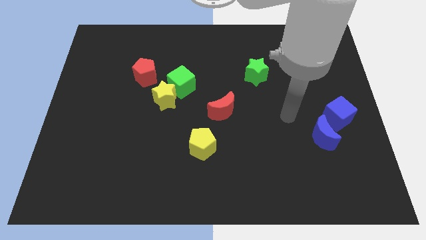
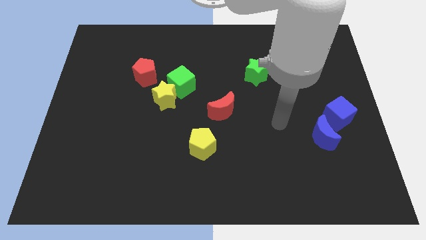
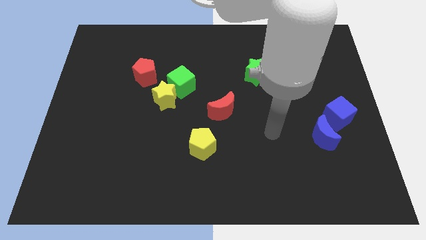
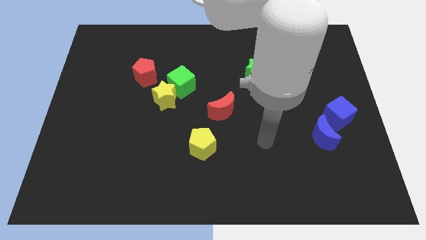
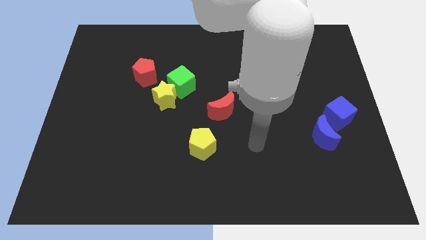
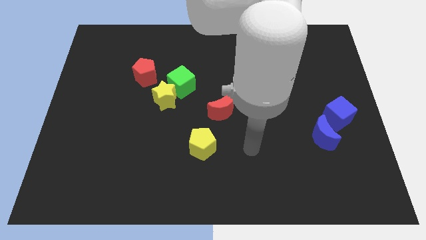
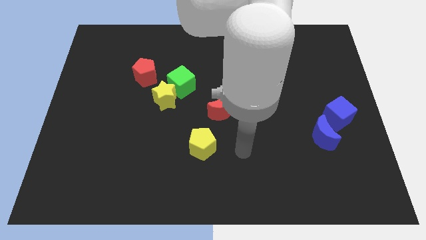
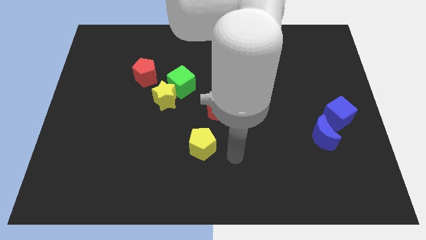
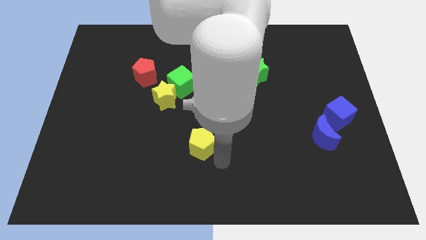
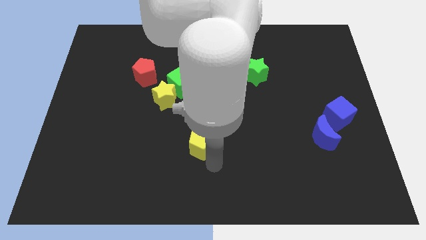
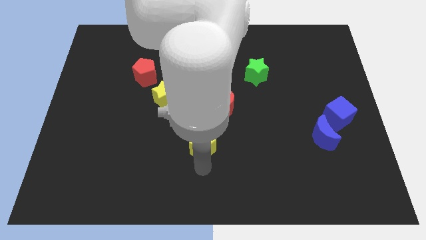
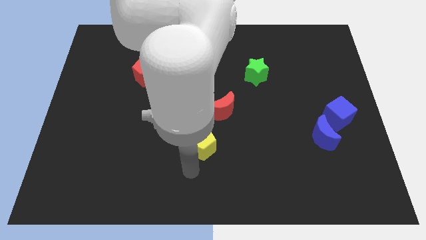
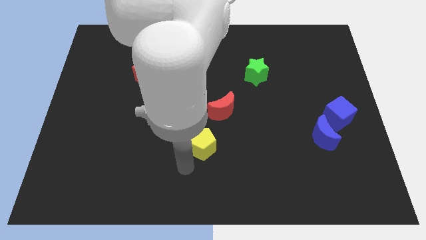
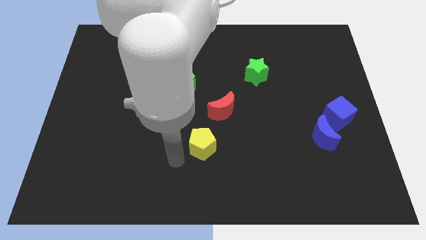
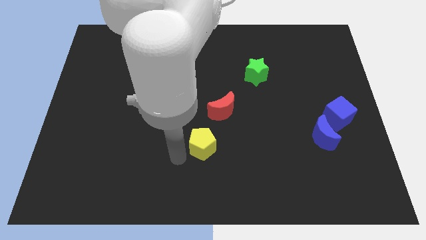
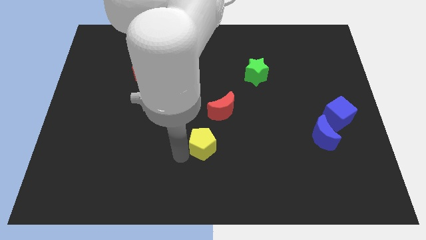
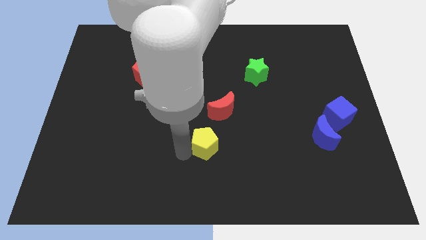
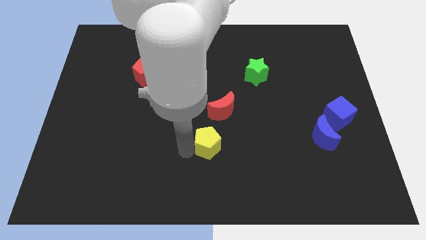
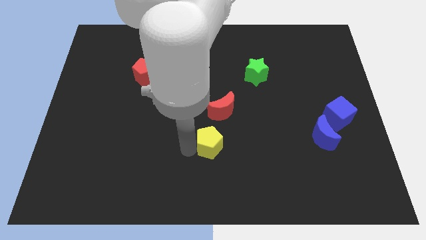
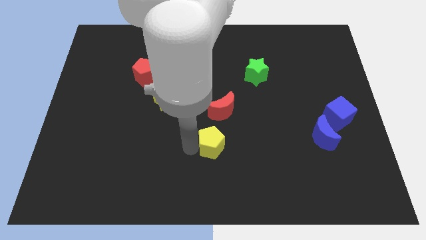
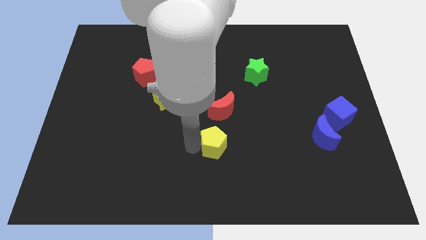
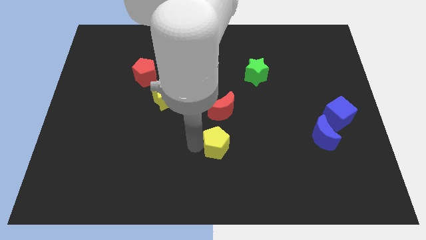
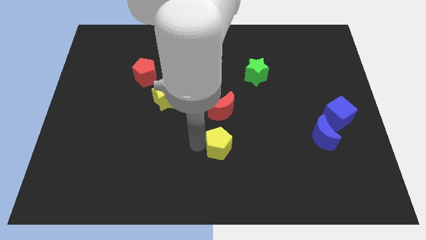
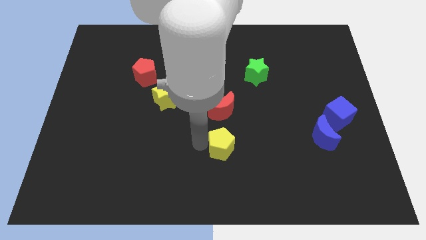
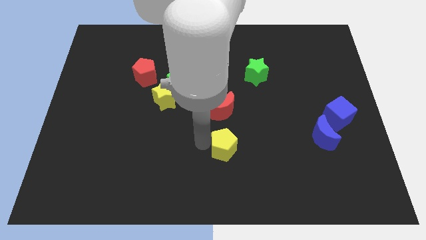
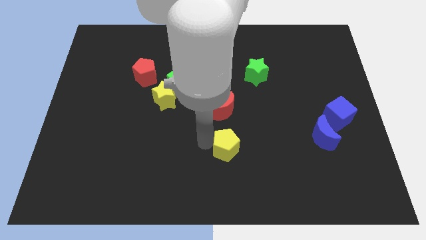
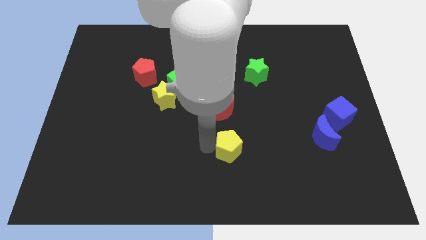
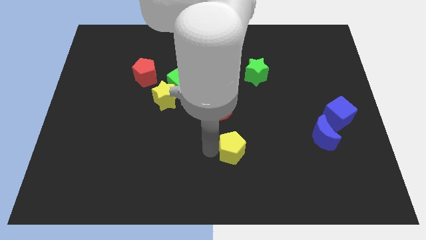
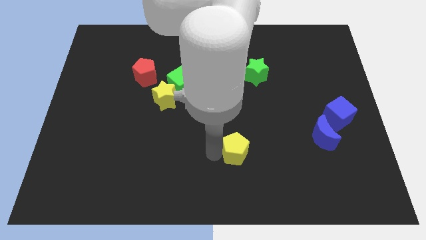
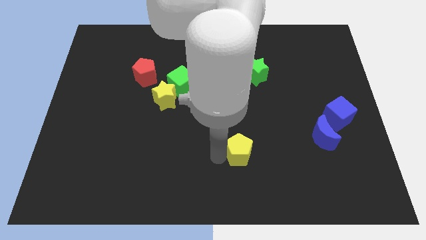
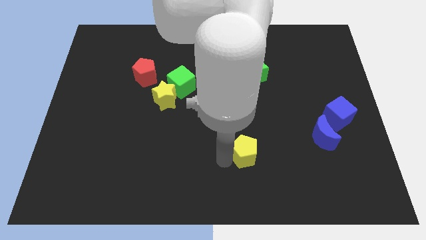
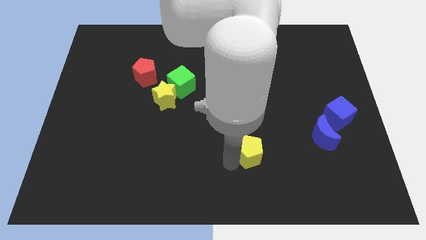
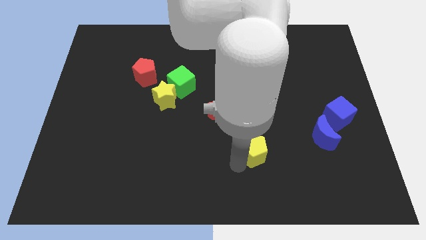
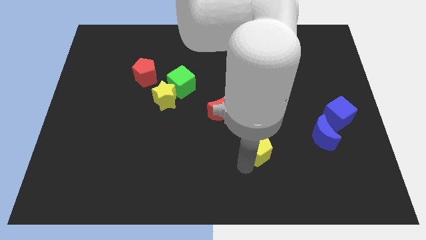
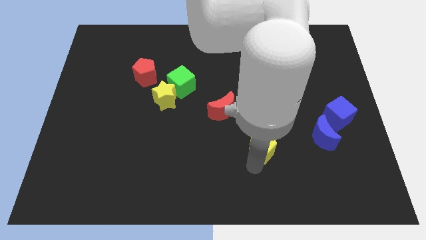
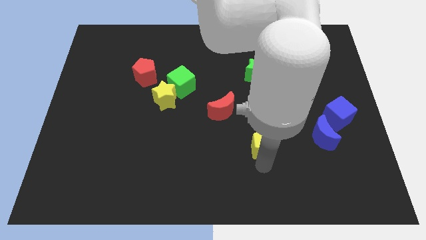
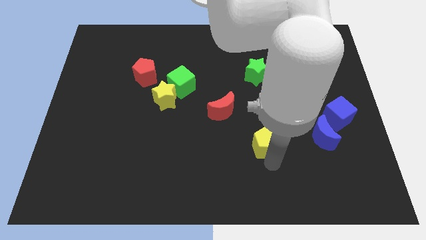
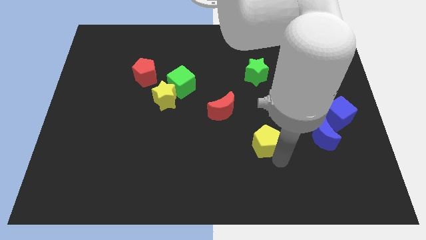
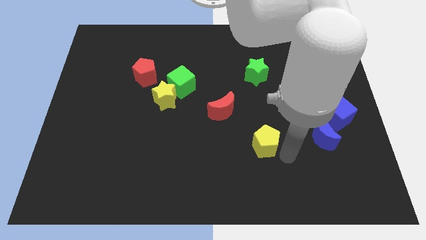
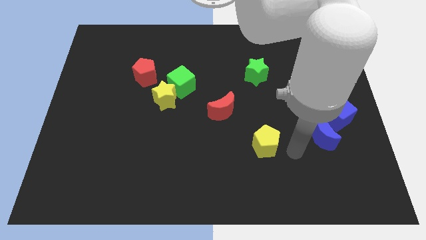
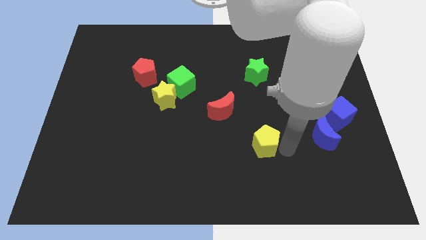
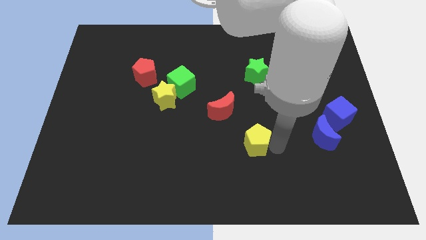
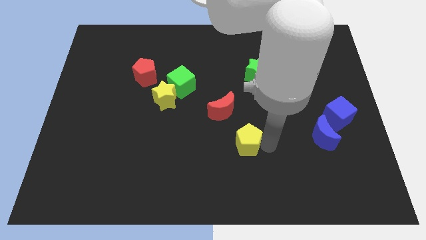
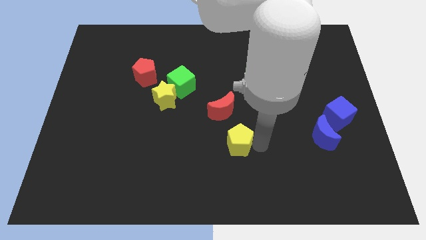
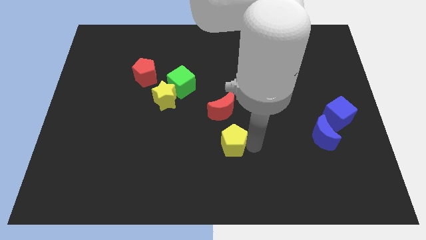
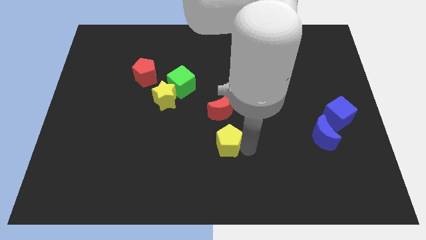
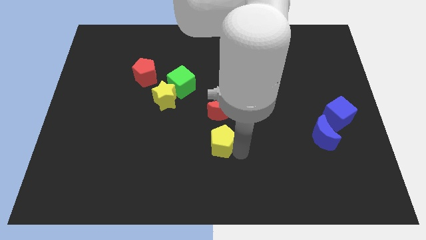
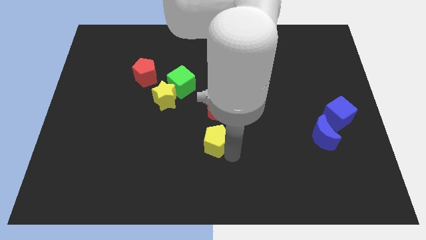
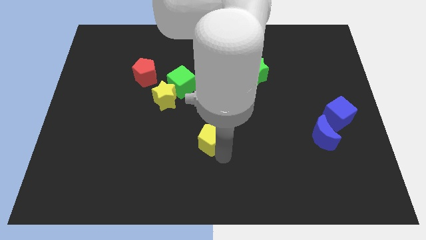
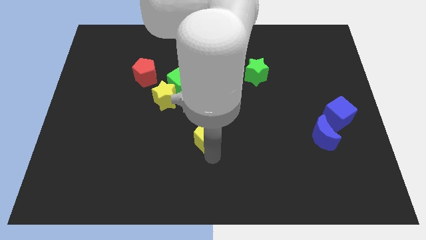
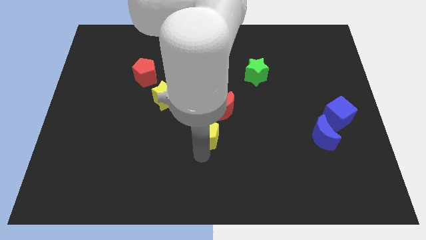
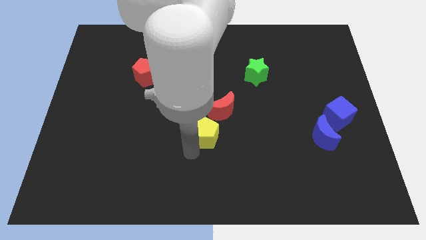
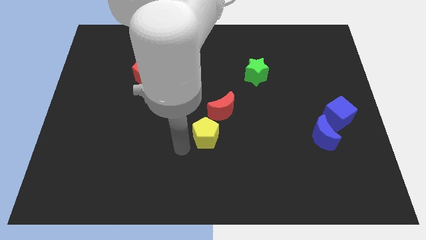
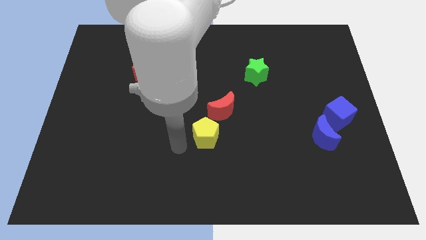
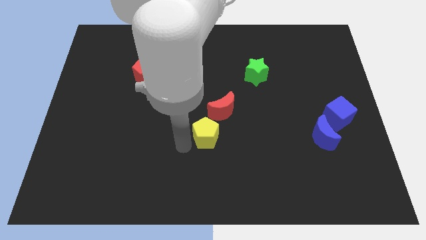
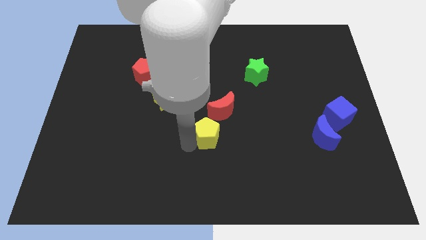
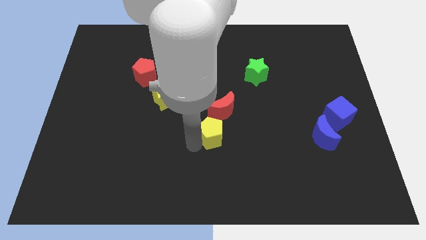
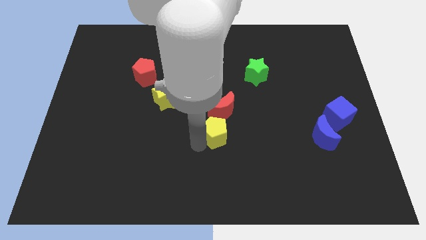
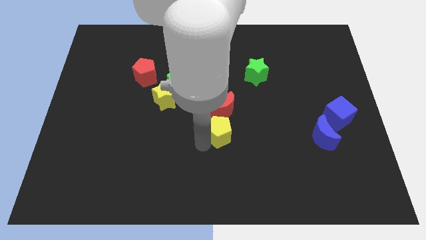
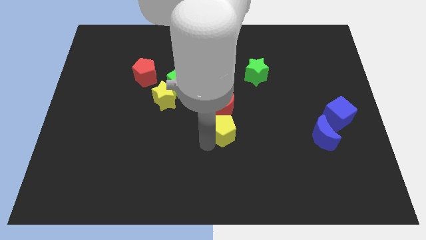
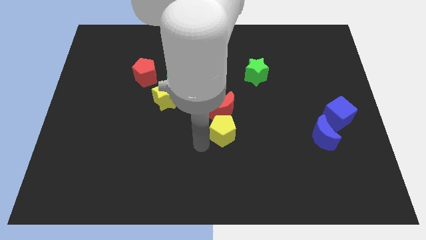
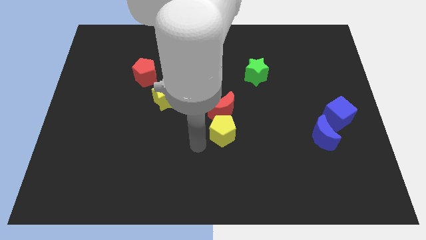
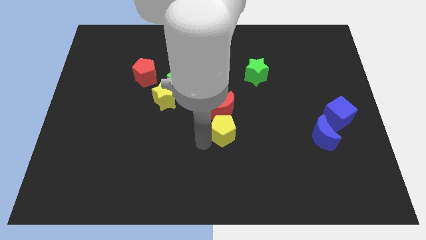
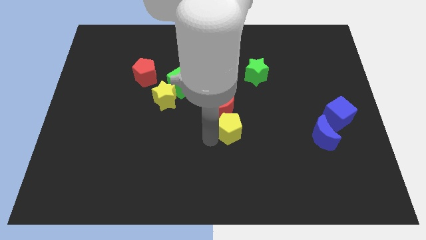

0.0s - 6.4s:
slightly slide the yellow pentagon up and to the right

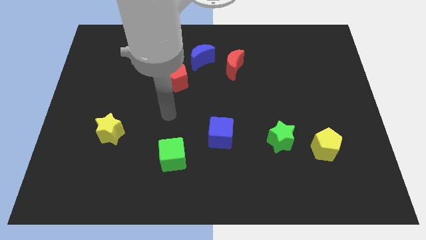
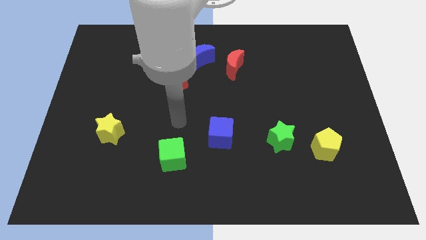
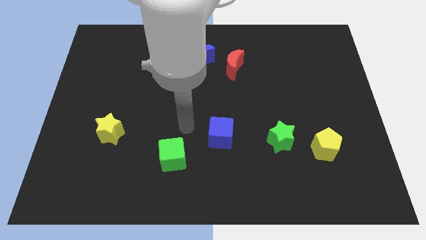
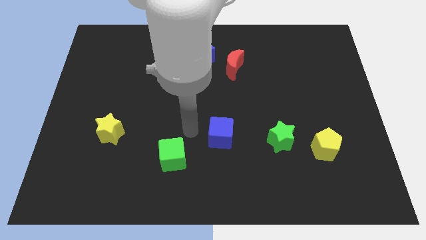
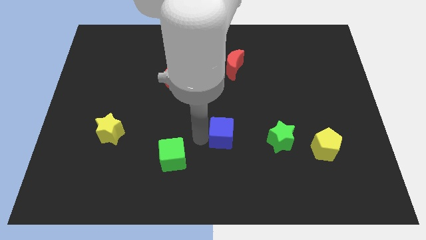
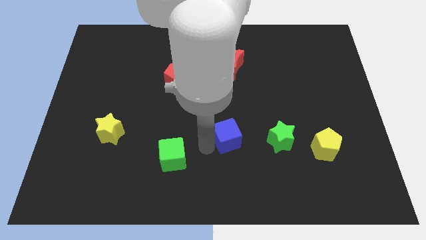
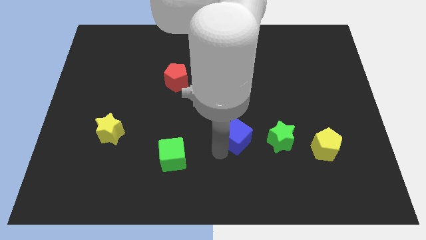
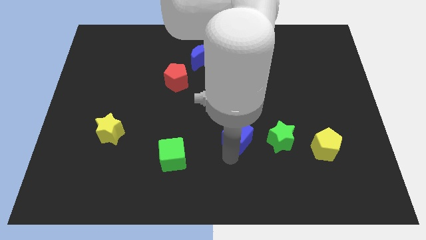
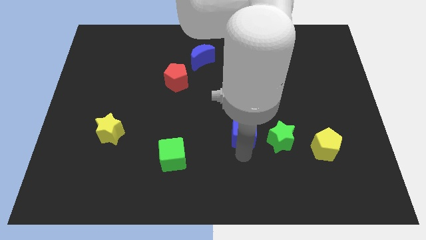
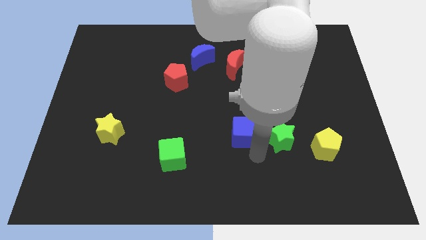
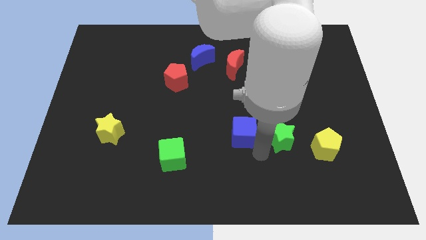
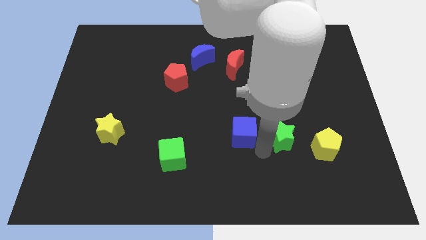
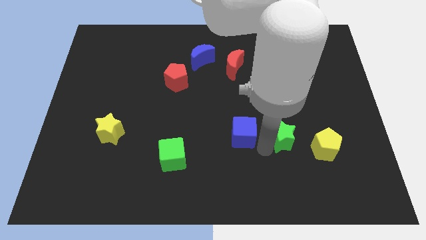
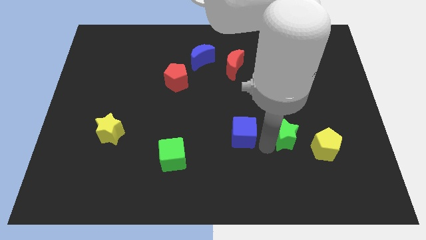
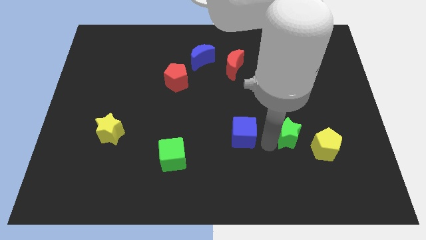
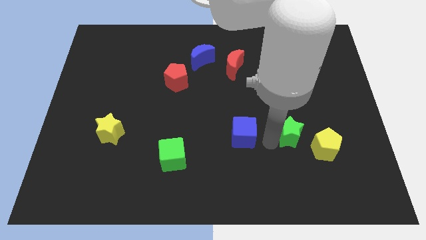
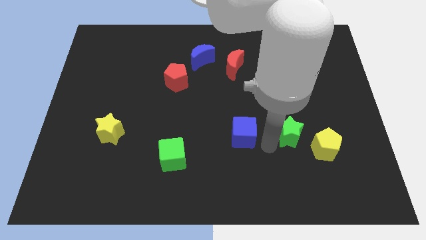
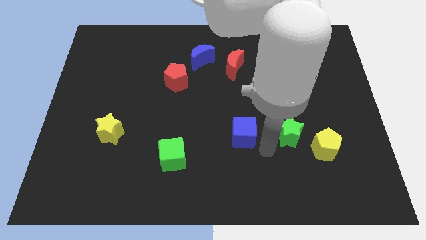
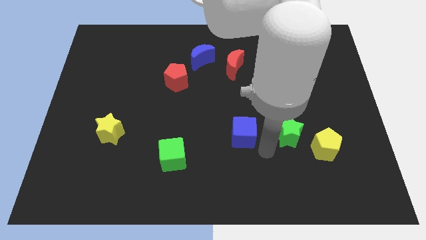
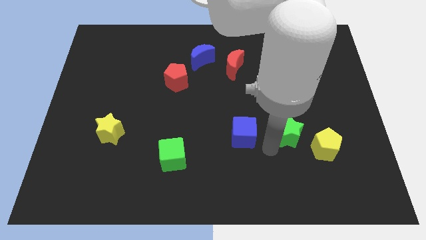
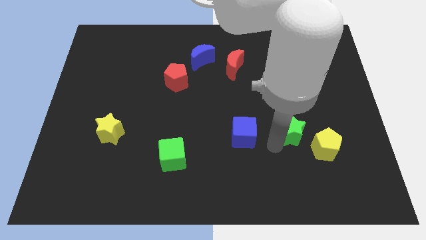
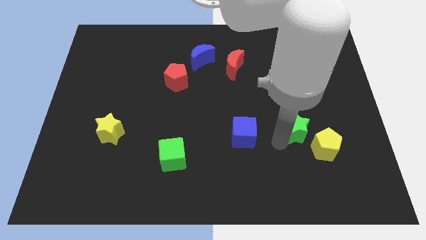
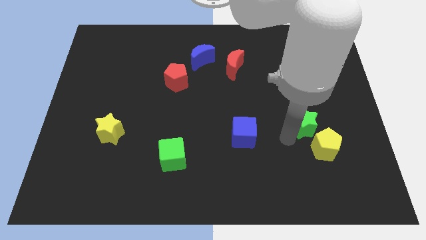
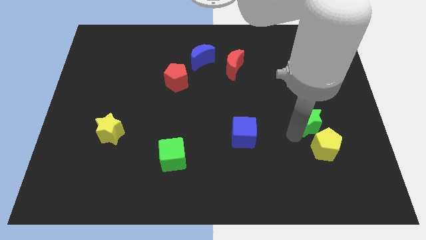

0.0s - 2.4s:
slide the green star a little upwards and to the right
